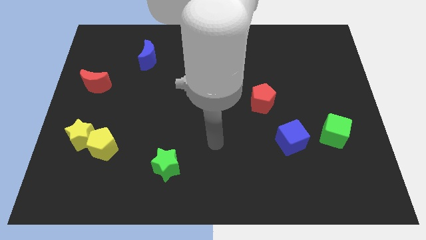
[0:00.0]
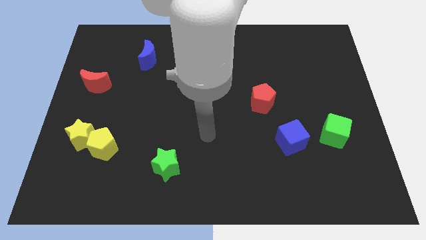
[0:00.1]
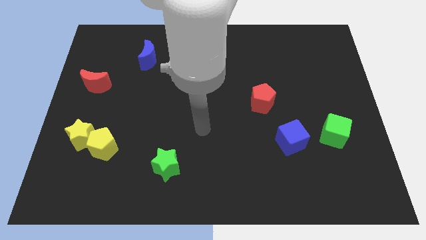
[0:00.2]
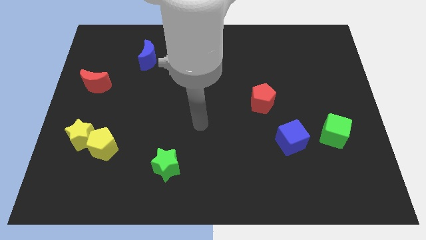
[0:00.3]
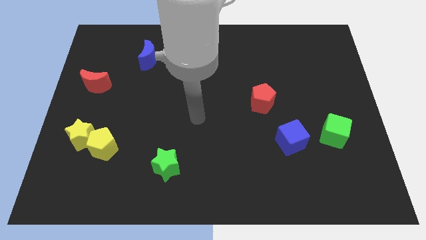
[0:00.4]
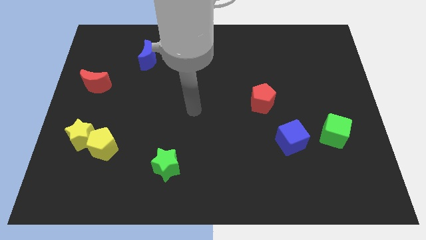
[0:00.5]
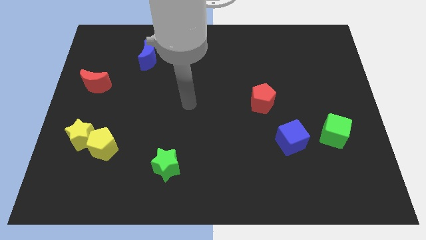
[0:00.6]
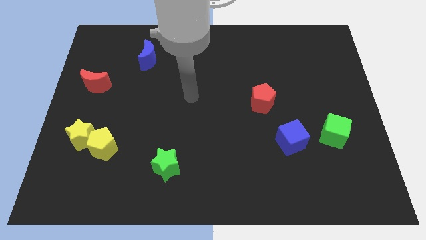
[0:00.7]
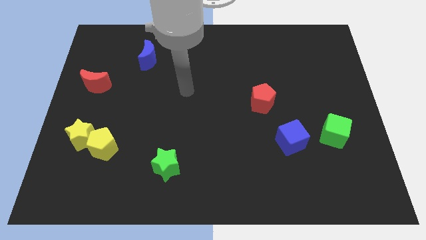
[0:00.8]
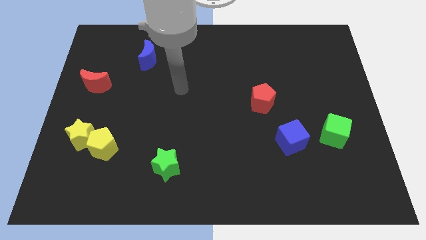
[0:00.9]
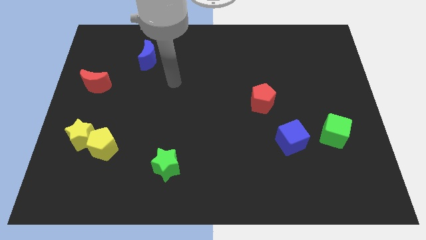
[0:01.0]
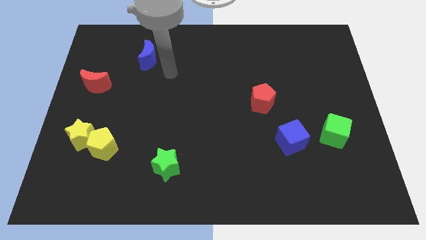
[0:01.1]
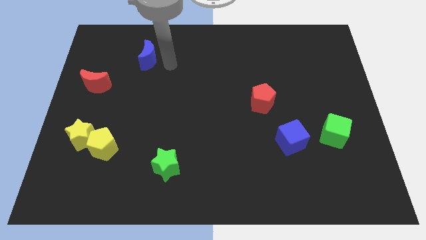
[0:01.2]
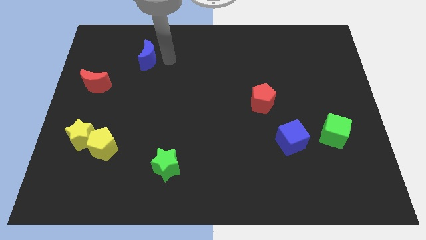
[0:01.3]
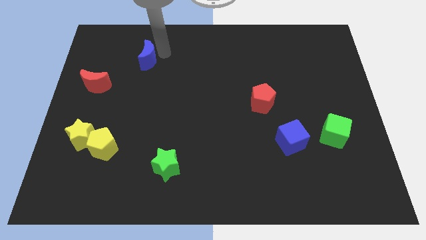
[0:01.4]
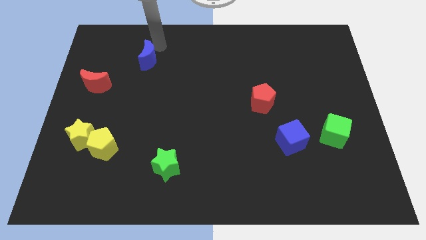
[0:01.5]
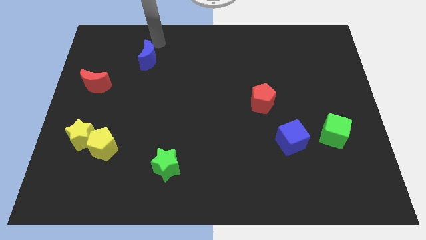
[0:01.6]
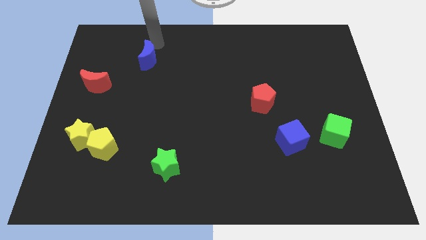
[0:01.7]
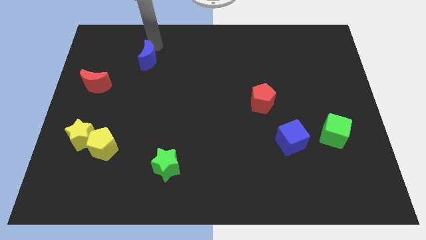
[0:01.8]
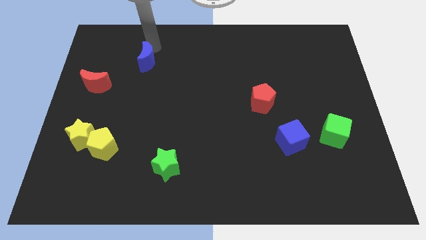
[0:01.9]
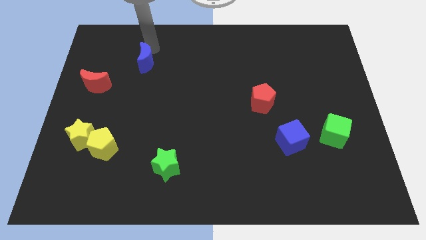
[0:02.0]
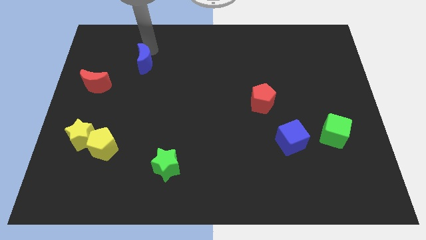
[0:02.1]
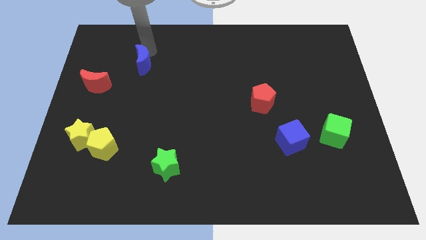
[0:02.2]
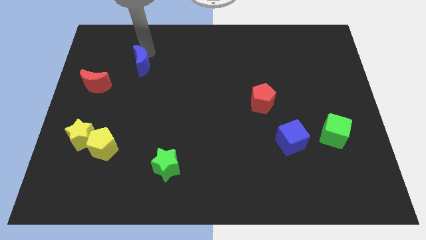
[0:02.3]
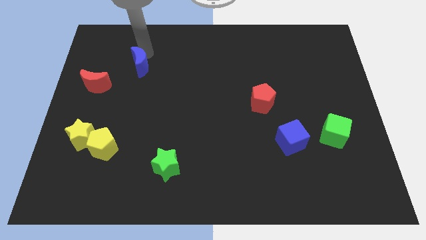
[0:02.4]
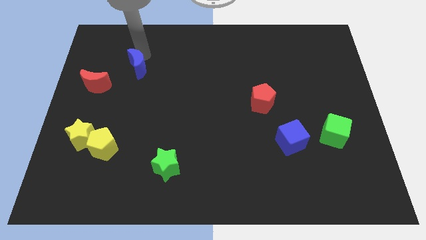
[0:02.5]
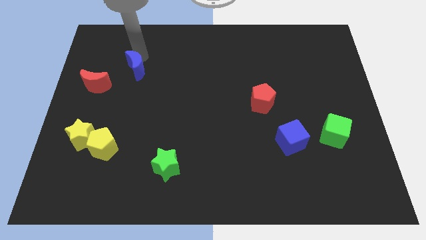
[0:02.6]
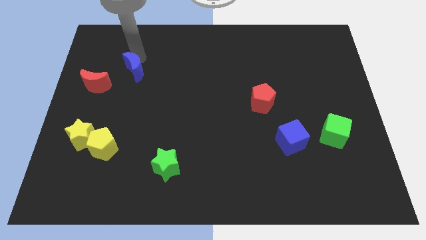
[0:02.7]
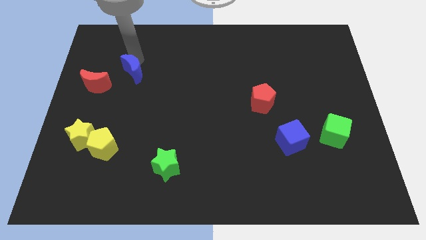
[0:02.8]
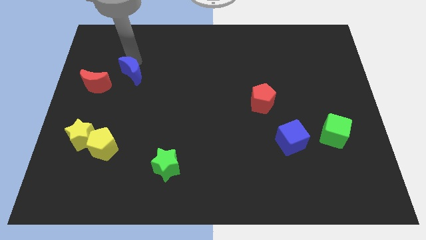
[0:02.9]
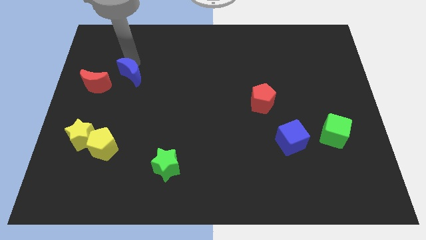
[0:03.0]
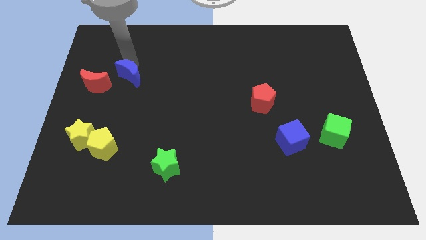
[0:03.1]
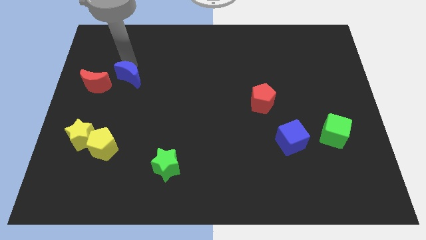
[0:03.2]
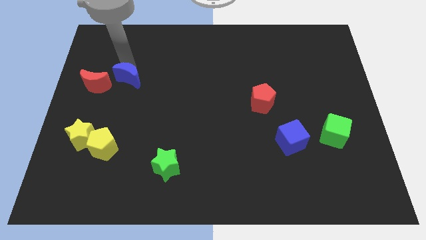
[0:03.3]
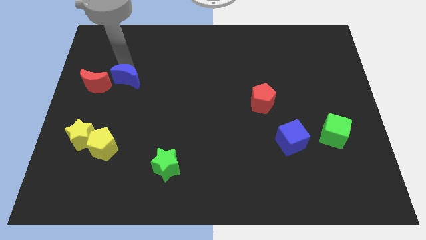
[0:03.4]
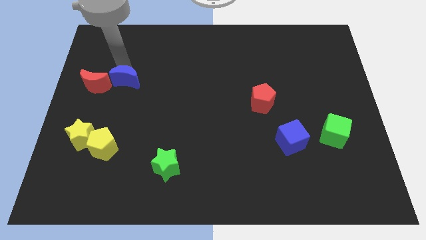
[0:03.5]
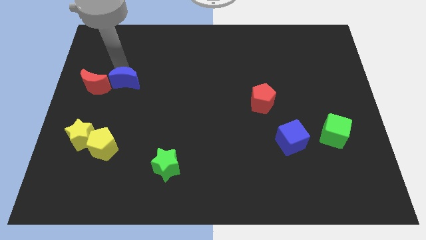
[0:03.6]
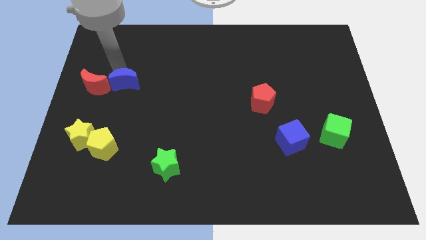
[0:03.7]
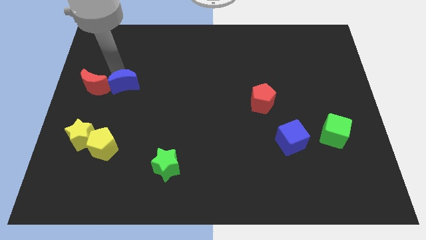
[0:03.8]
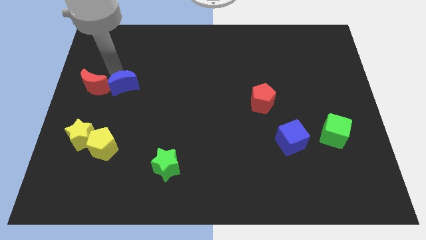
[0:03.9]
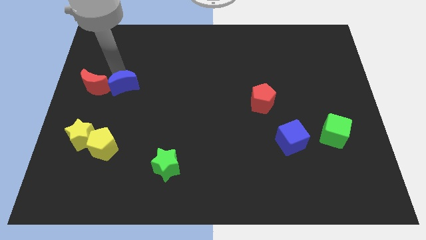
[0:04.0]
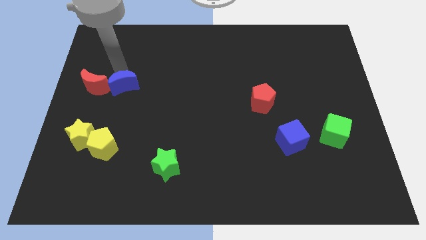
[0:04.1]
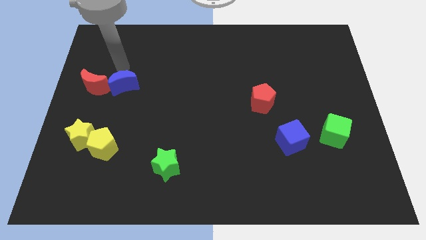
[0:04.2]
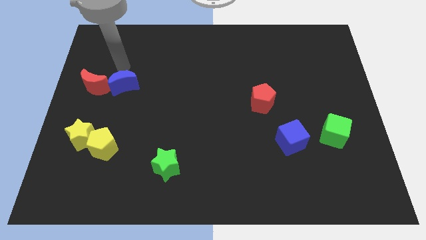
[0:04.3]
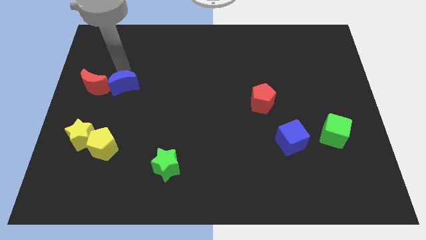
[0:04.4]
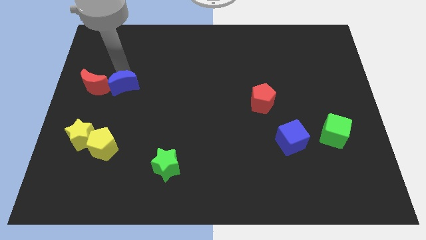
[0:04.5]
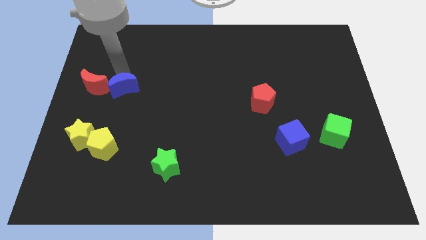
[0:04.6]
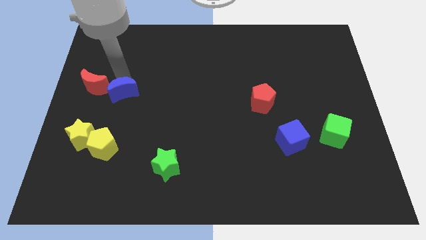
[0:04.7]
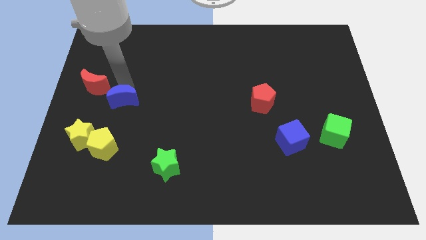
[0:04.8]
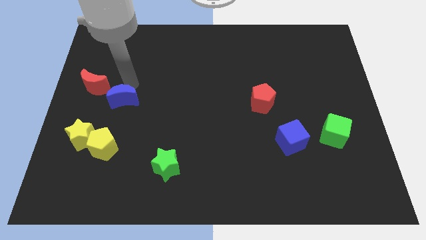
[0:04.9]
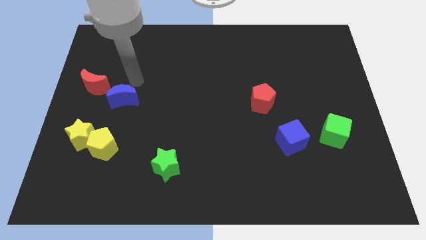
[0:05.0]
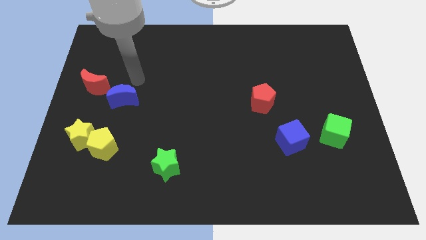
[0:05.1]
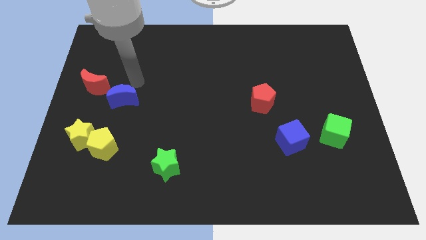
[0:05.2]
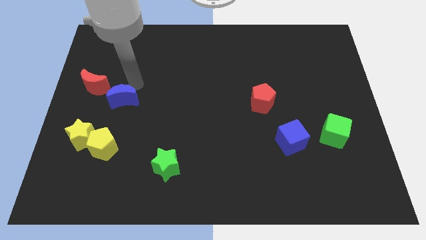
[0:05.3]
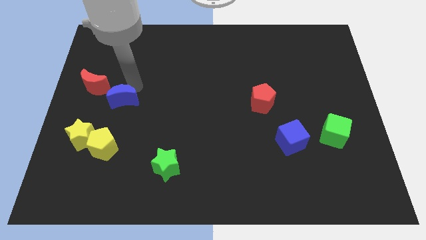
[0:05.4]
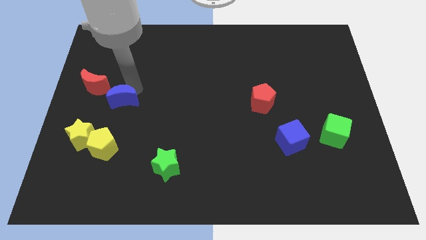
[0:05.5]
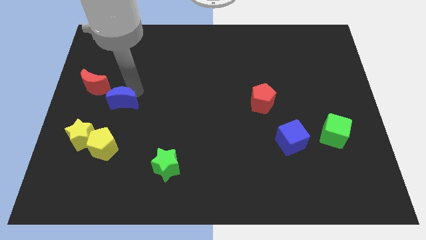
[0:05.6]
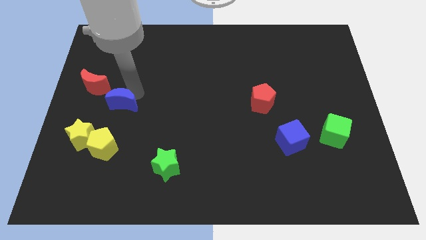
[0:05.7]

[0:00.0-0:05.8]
slide the blue moon to the top right side of the yellow star

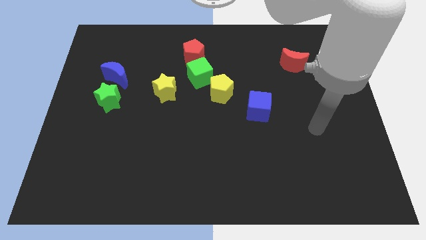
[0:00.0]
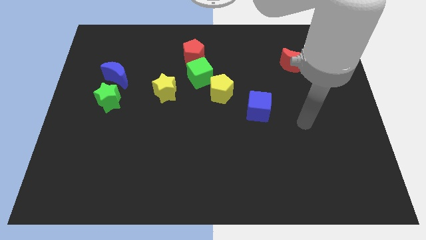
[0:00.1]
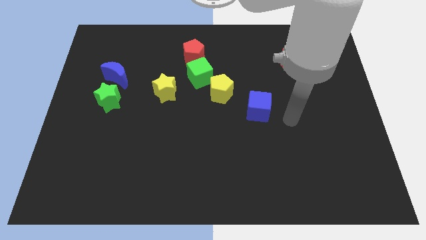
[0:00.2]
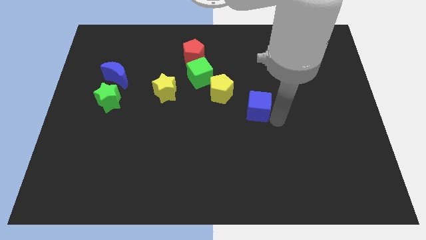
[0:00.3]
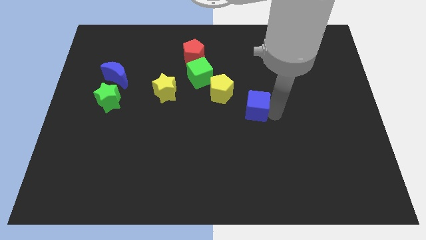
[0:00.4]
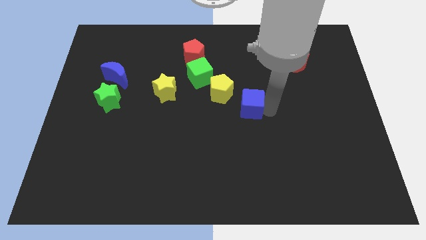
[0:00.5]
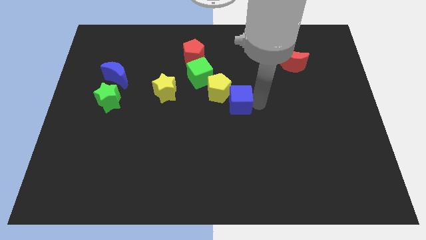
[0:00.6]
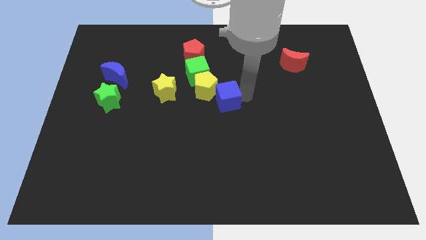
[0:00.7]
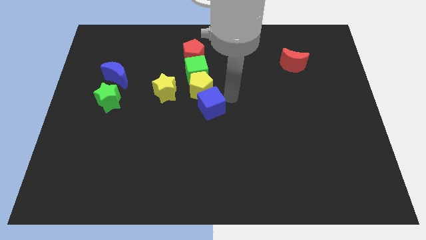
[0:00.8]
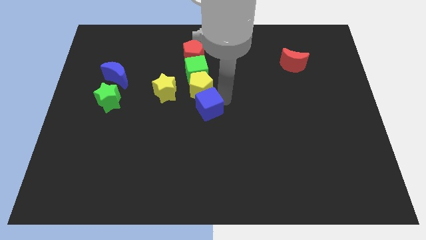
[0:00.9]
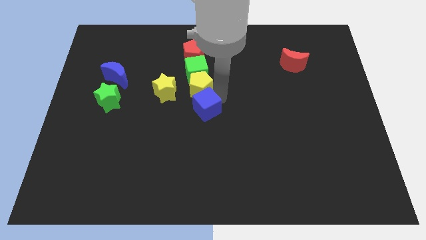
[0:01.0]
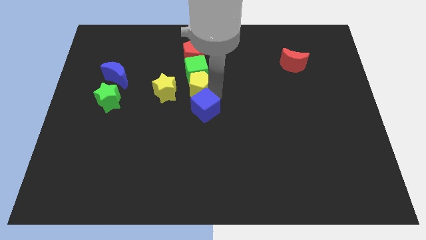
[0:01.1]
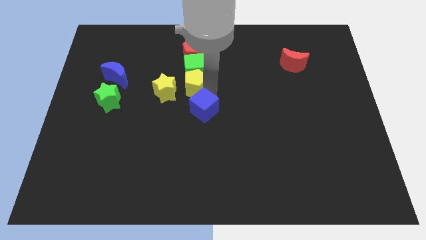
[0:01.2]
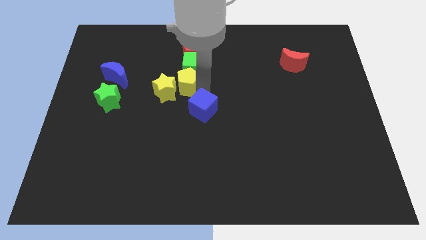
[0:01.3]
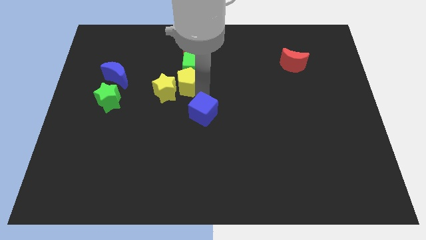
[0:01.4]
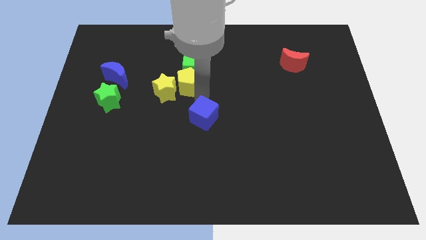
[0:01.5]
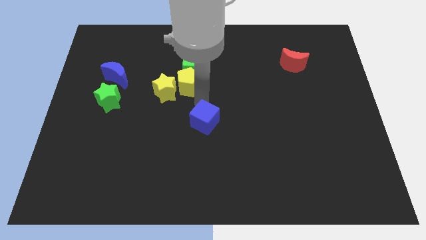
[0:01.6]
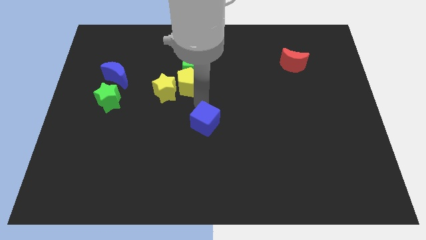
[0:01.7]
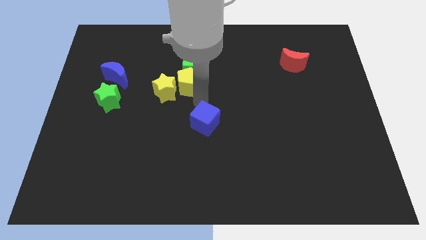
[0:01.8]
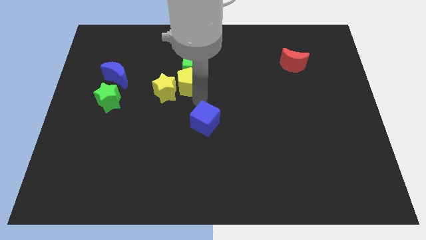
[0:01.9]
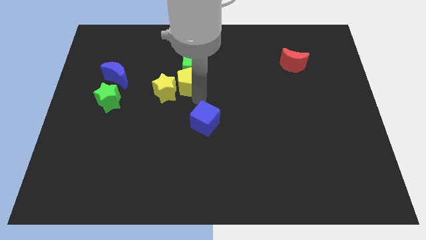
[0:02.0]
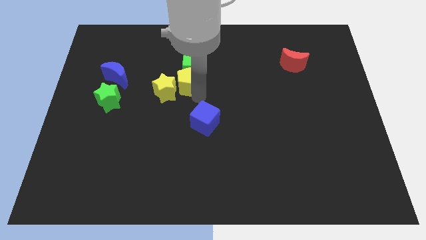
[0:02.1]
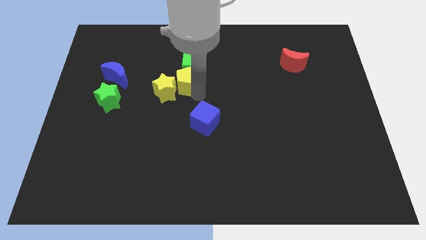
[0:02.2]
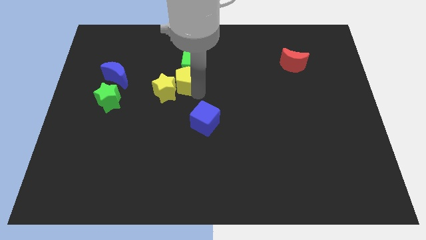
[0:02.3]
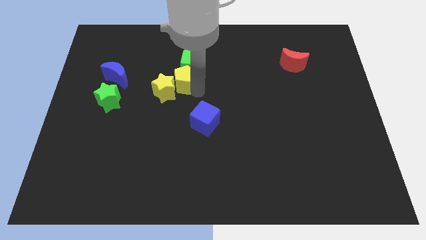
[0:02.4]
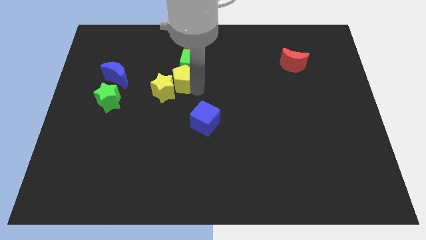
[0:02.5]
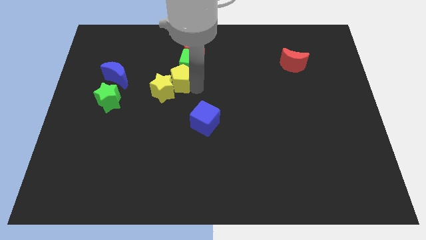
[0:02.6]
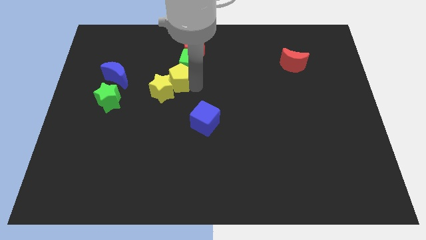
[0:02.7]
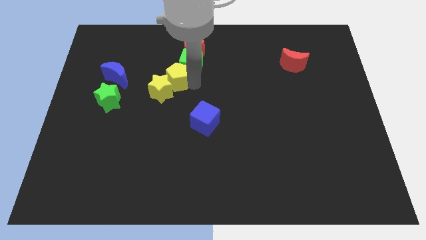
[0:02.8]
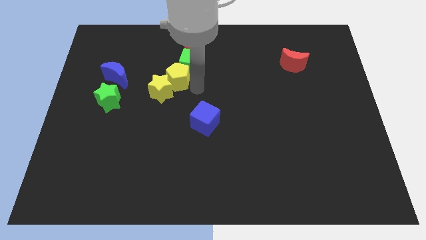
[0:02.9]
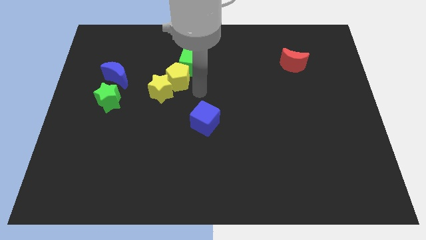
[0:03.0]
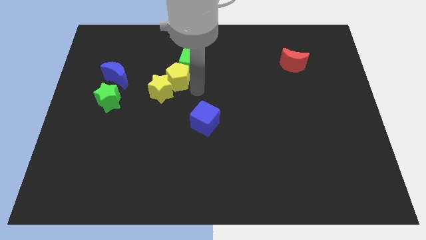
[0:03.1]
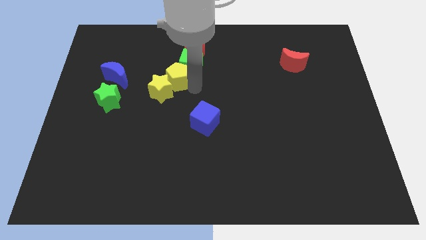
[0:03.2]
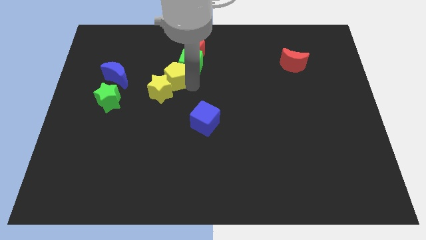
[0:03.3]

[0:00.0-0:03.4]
slide the yellow pentagon to the left of the green cube
